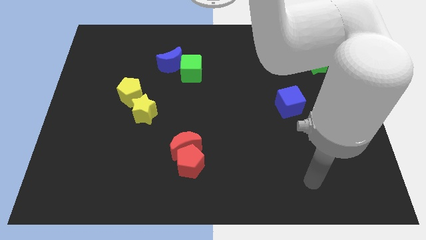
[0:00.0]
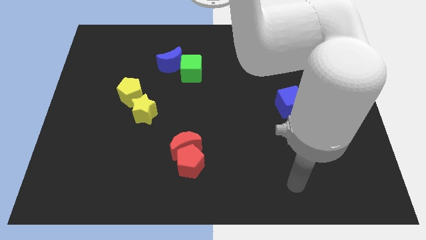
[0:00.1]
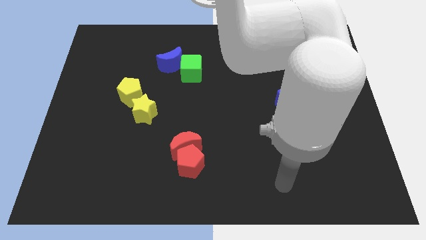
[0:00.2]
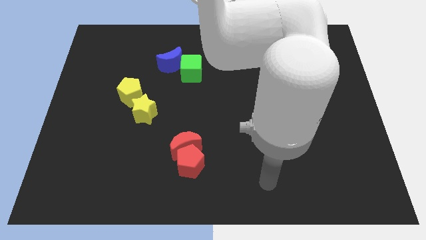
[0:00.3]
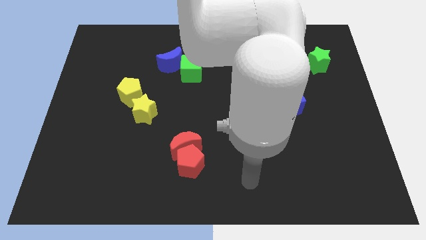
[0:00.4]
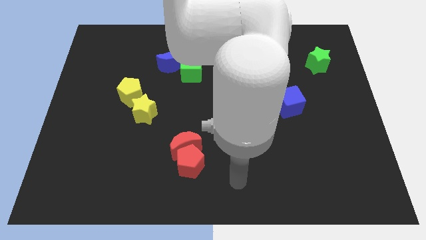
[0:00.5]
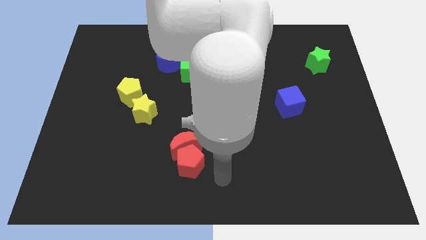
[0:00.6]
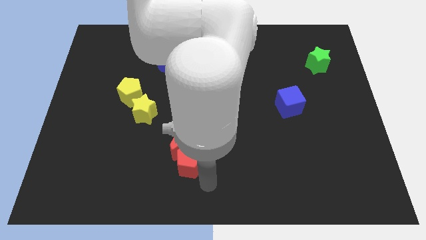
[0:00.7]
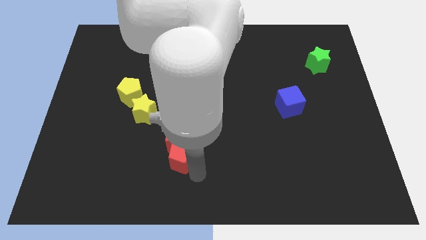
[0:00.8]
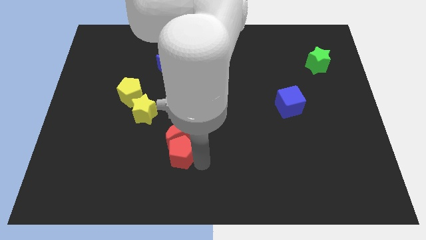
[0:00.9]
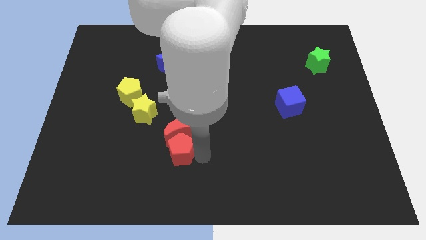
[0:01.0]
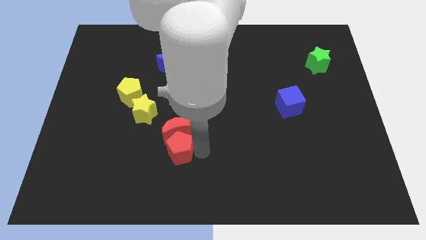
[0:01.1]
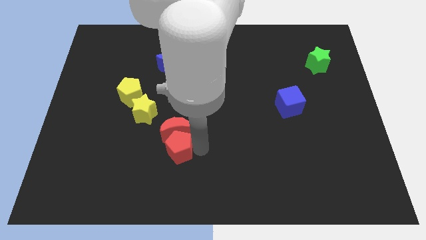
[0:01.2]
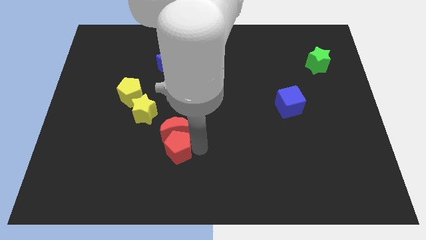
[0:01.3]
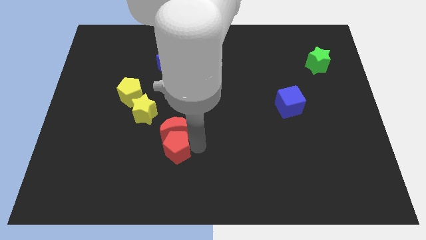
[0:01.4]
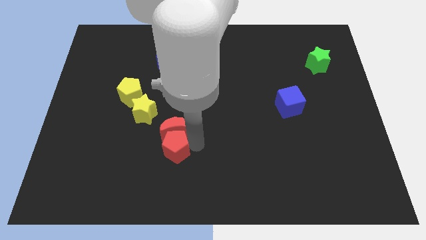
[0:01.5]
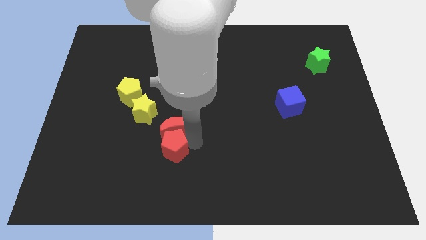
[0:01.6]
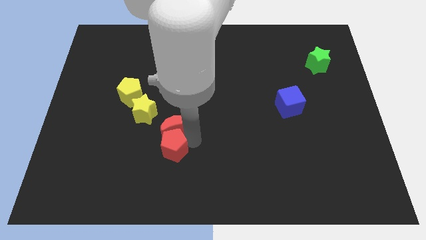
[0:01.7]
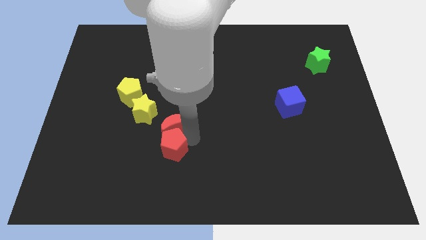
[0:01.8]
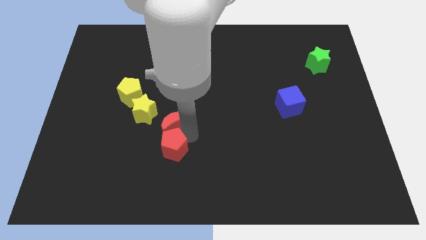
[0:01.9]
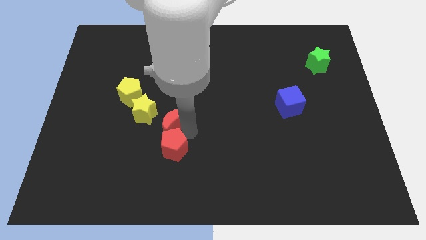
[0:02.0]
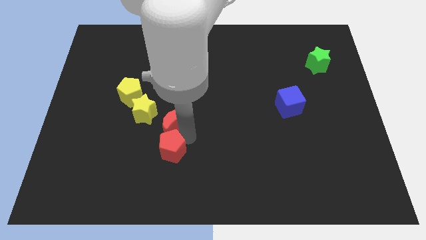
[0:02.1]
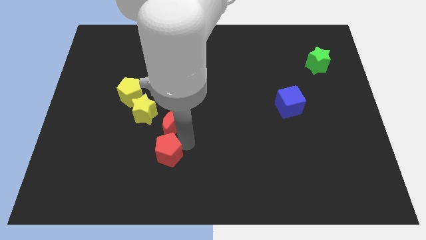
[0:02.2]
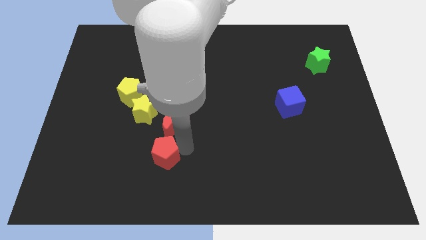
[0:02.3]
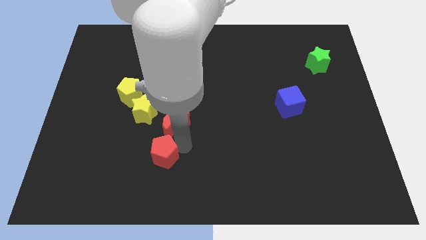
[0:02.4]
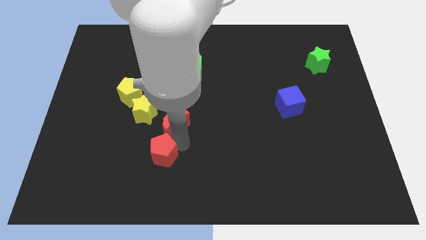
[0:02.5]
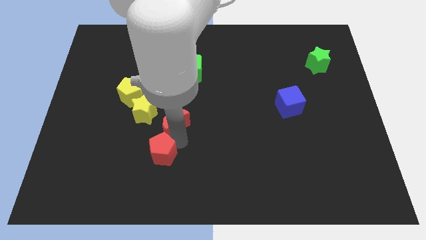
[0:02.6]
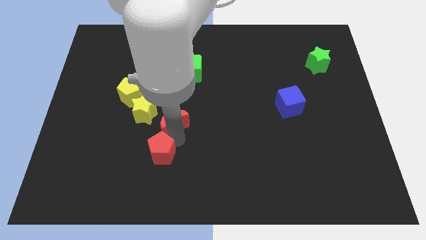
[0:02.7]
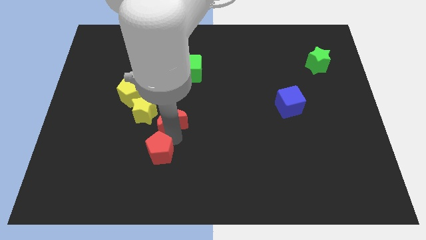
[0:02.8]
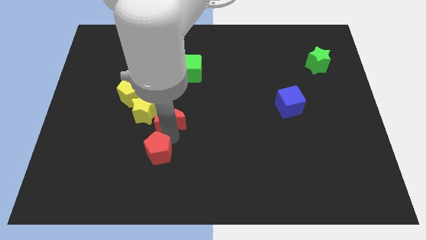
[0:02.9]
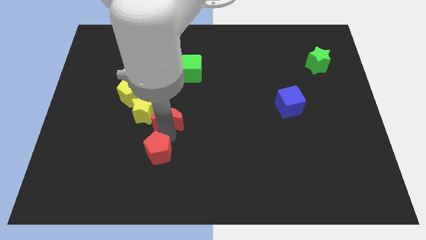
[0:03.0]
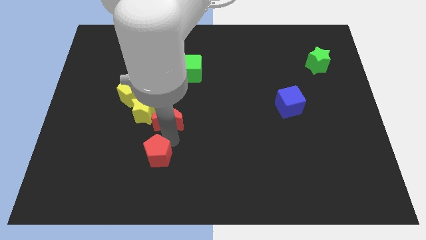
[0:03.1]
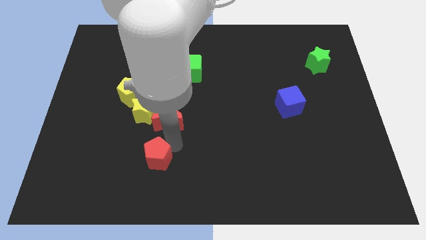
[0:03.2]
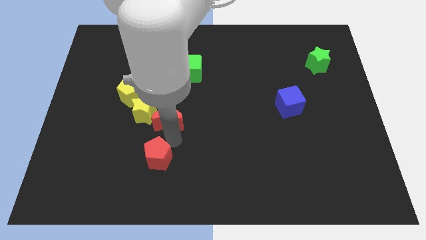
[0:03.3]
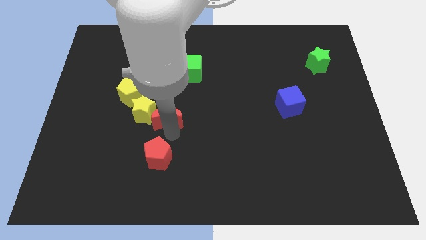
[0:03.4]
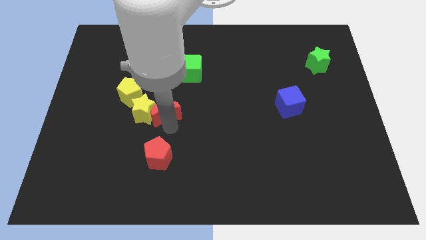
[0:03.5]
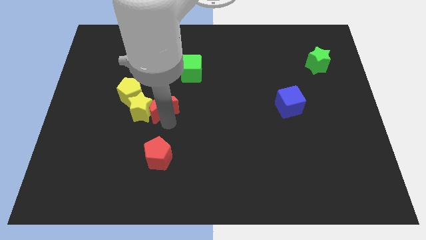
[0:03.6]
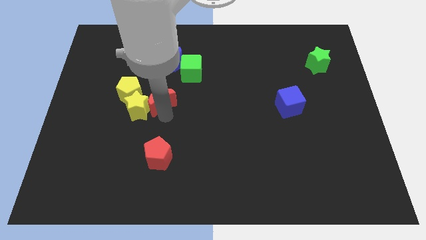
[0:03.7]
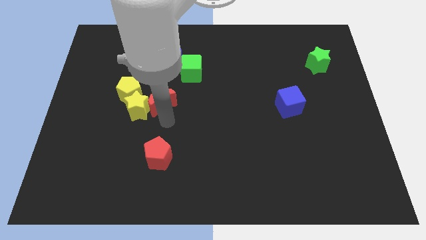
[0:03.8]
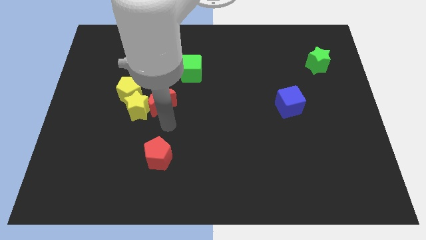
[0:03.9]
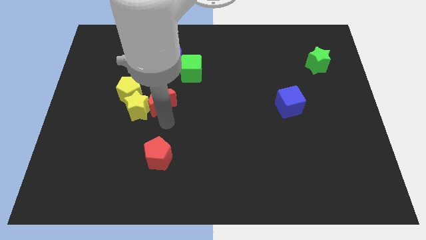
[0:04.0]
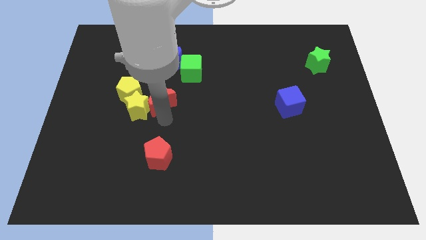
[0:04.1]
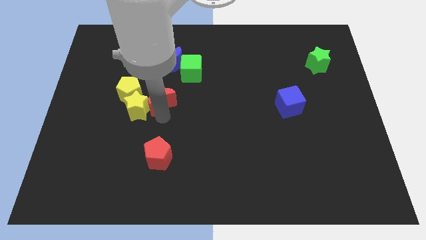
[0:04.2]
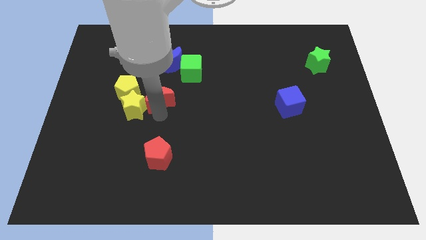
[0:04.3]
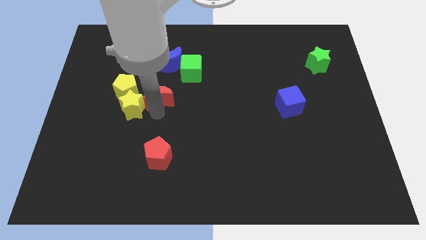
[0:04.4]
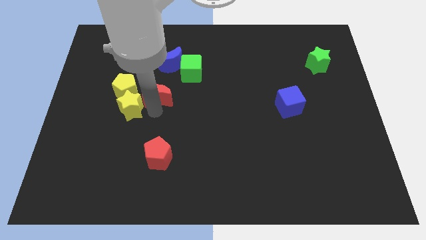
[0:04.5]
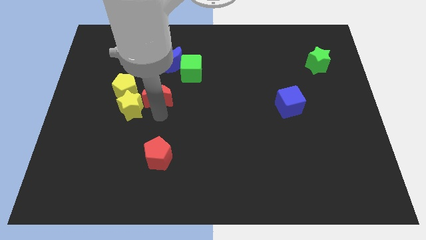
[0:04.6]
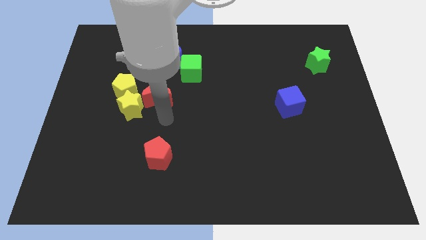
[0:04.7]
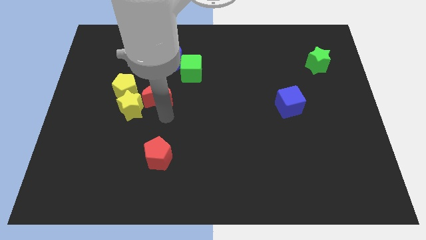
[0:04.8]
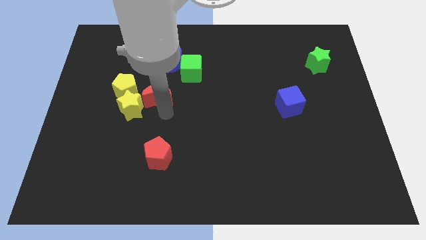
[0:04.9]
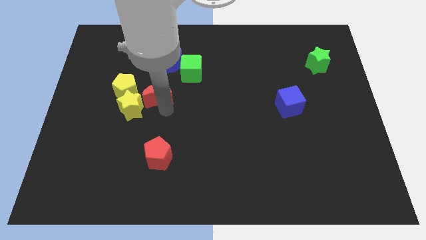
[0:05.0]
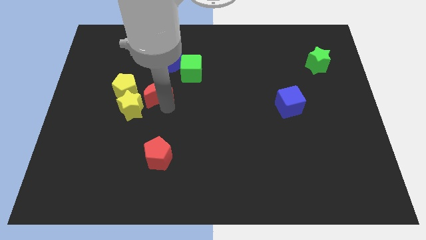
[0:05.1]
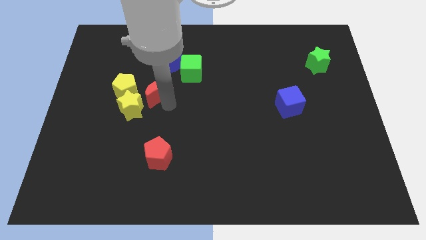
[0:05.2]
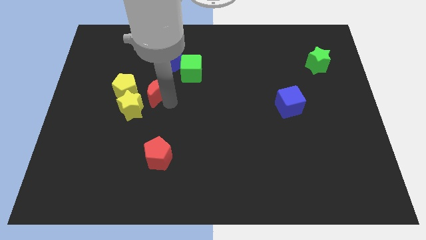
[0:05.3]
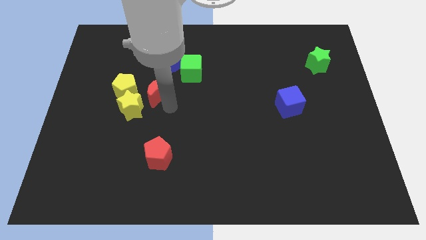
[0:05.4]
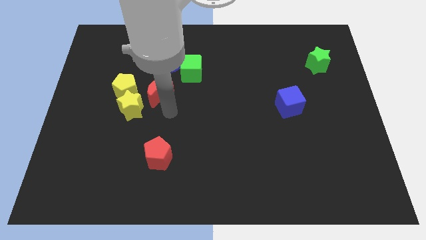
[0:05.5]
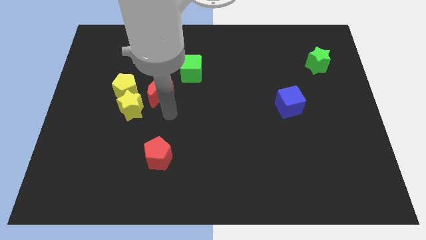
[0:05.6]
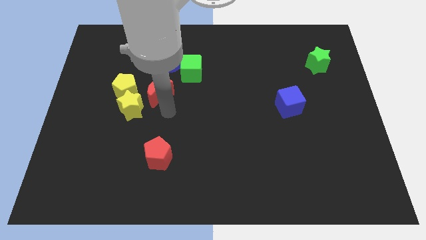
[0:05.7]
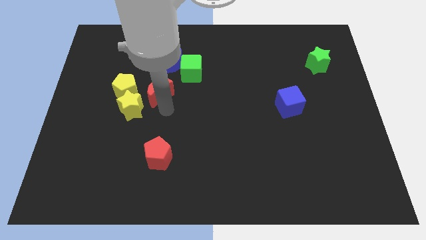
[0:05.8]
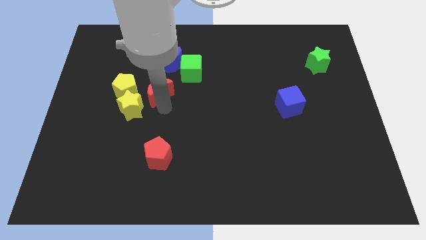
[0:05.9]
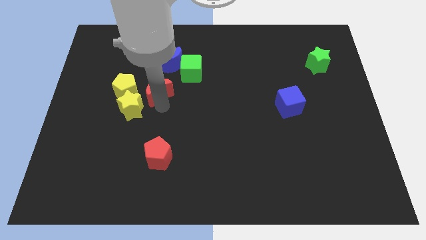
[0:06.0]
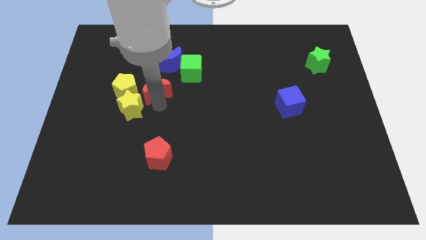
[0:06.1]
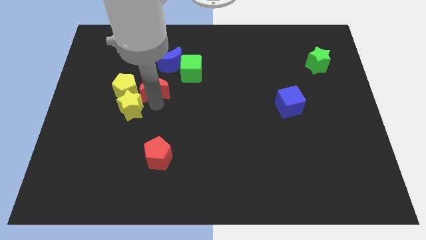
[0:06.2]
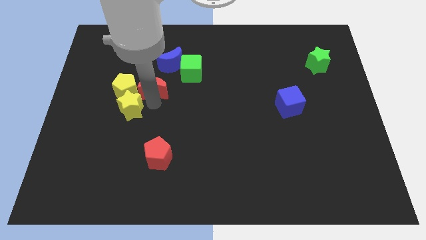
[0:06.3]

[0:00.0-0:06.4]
move the red moon diagonally up and to the right of the yellow pentagon

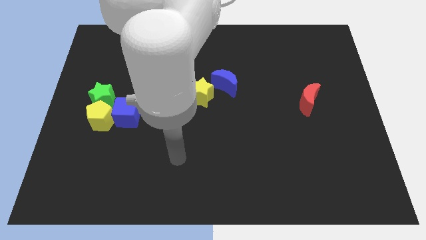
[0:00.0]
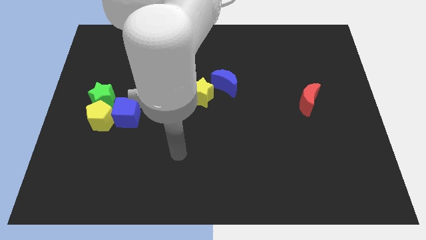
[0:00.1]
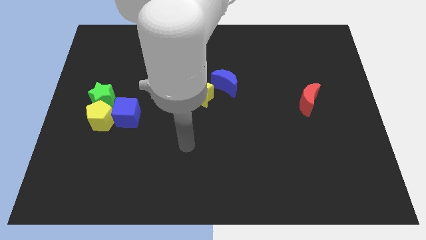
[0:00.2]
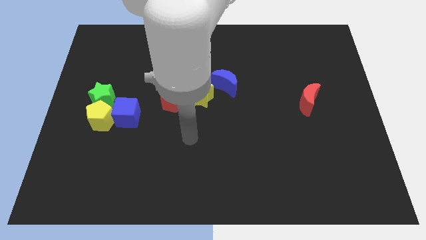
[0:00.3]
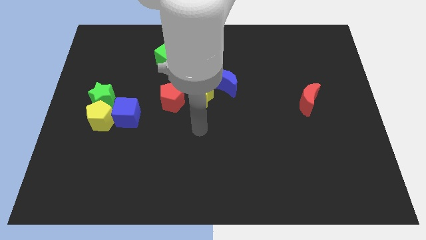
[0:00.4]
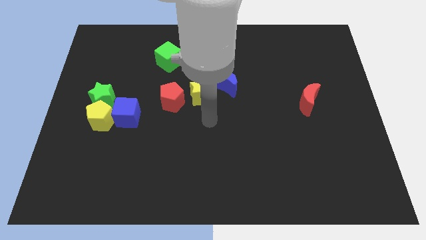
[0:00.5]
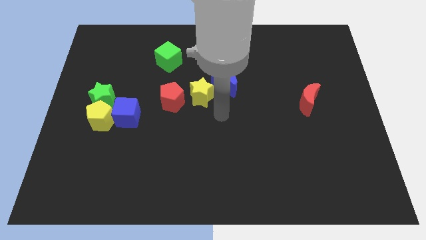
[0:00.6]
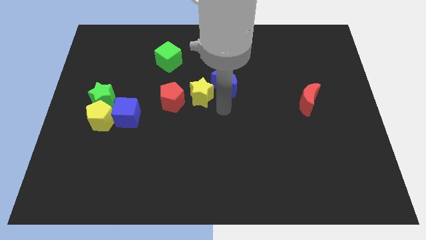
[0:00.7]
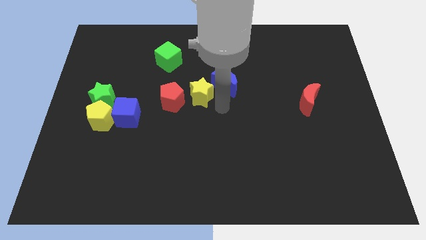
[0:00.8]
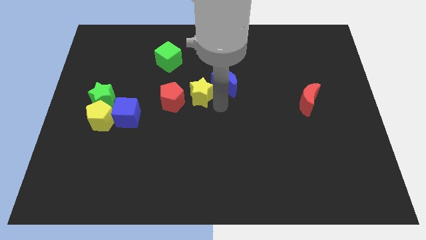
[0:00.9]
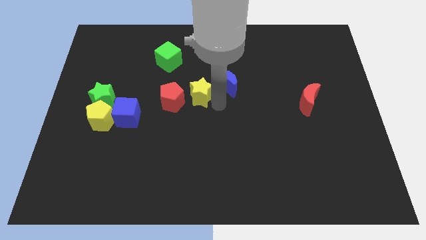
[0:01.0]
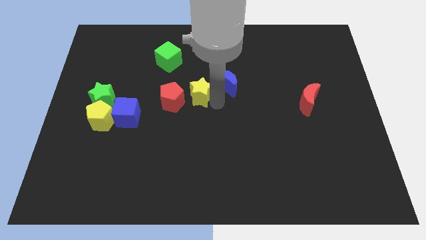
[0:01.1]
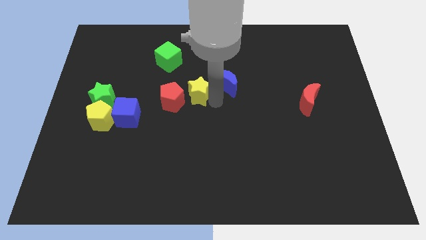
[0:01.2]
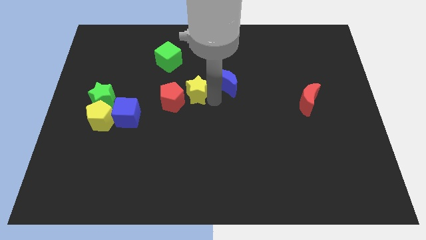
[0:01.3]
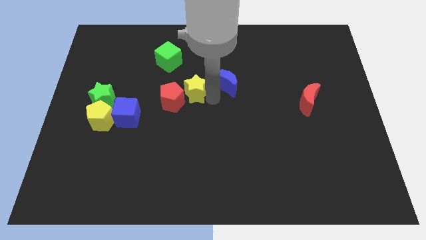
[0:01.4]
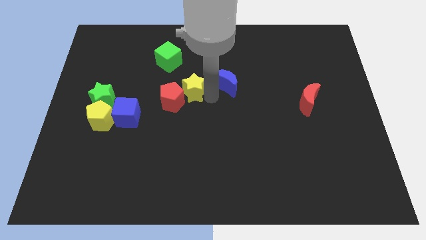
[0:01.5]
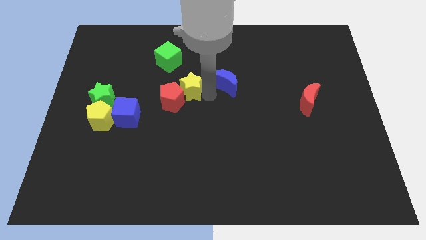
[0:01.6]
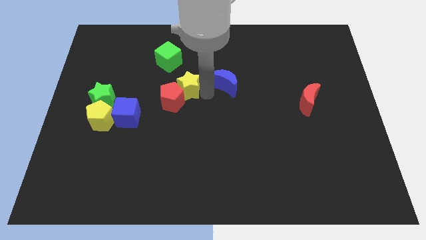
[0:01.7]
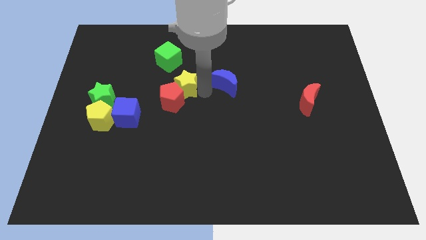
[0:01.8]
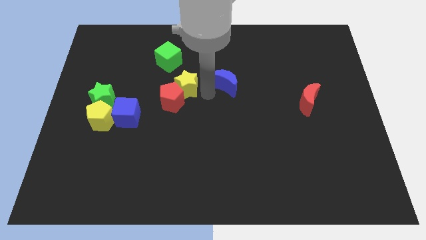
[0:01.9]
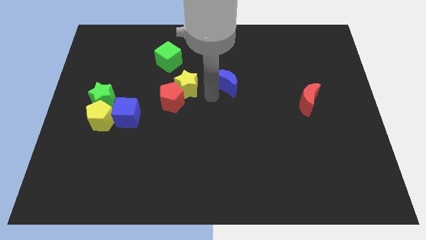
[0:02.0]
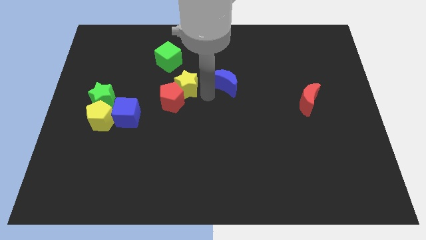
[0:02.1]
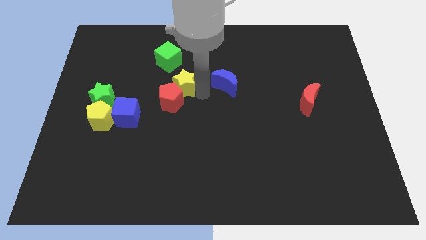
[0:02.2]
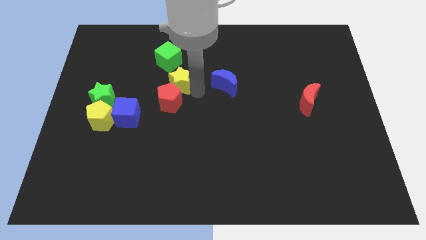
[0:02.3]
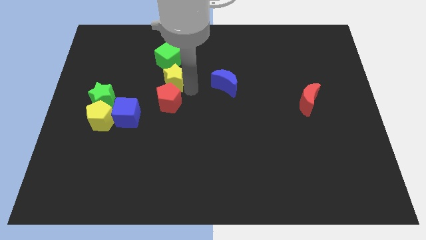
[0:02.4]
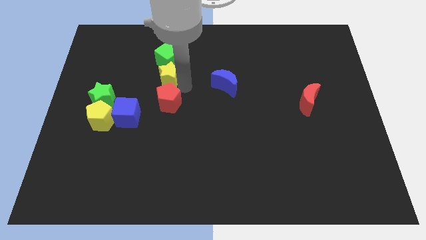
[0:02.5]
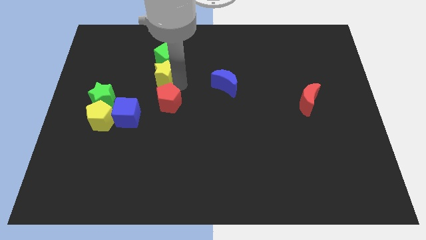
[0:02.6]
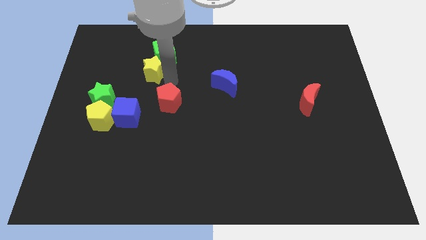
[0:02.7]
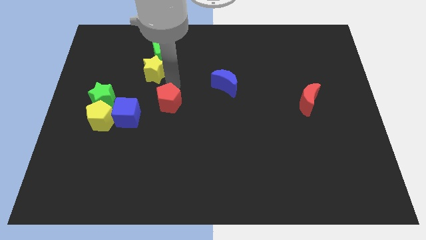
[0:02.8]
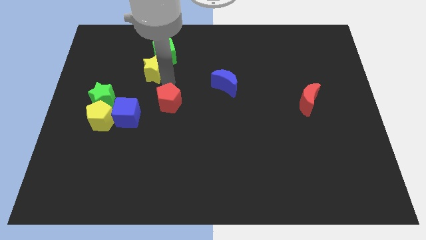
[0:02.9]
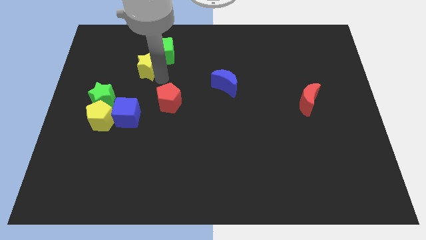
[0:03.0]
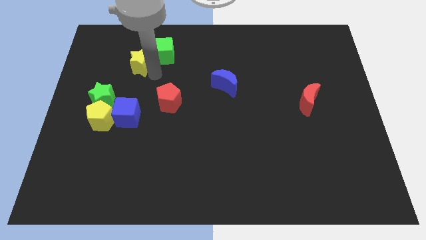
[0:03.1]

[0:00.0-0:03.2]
put the yellow star just left of the green cube
